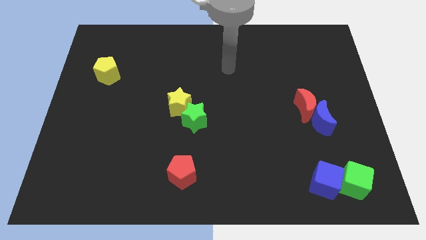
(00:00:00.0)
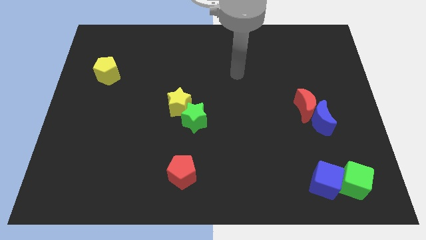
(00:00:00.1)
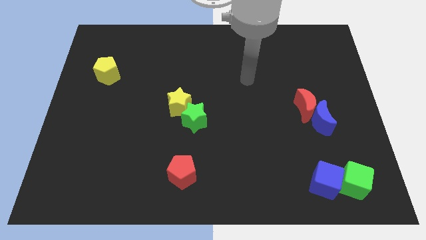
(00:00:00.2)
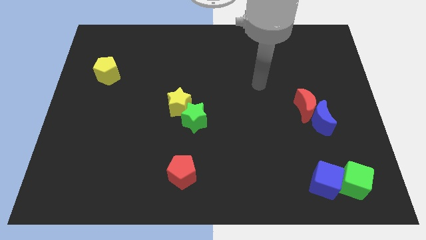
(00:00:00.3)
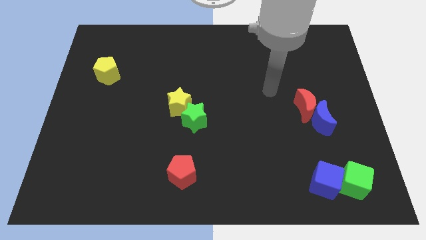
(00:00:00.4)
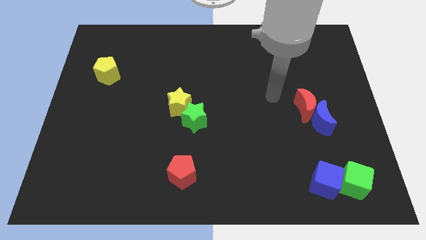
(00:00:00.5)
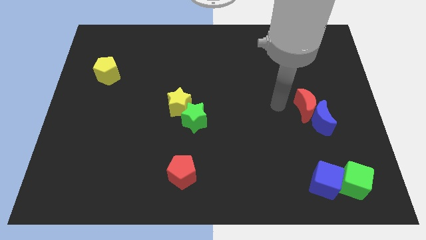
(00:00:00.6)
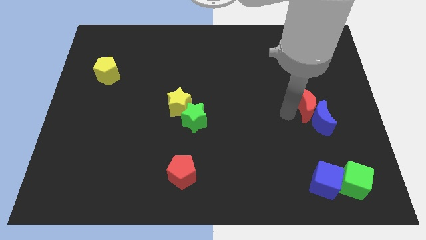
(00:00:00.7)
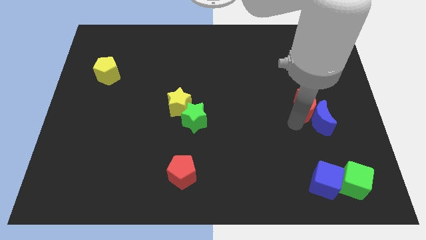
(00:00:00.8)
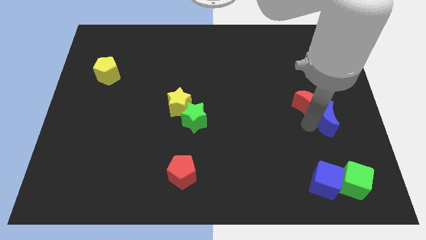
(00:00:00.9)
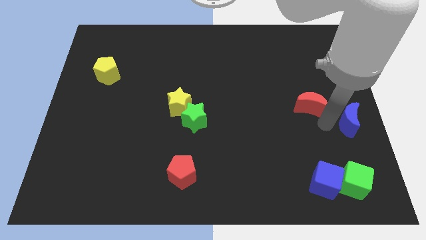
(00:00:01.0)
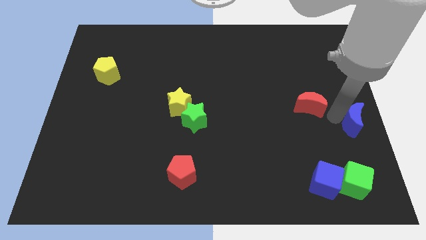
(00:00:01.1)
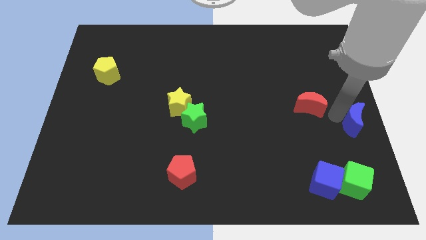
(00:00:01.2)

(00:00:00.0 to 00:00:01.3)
move the red moon away from the blue moon

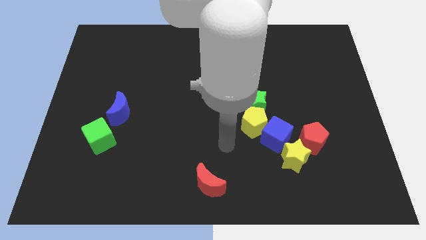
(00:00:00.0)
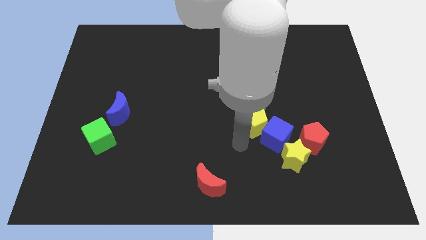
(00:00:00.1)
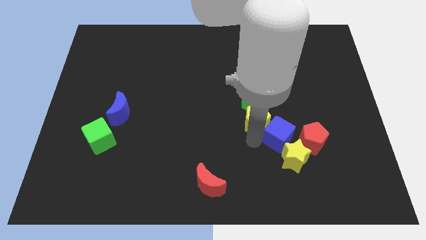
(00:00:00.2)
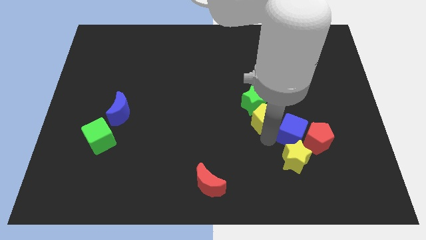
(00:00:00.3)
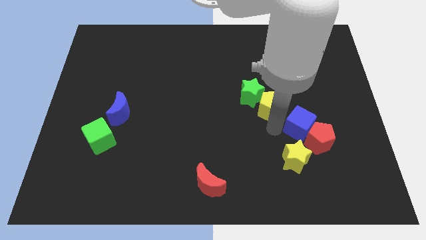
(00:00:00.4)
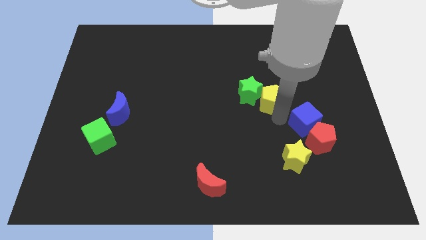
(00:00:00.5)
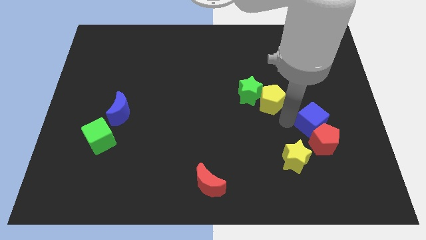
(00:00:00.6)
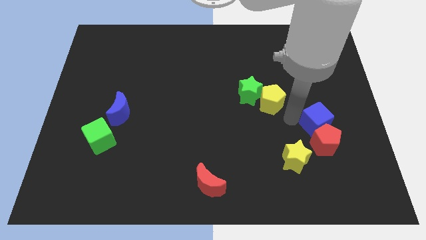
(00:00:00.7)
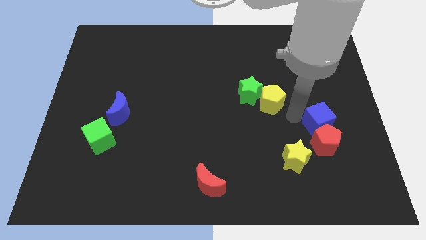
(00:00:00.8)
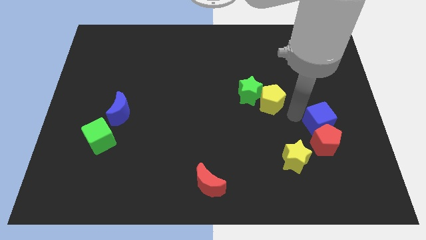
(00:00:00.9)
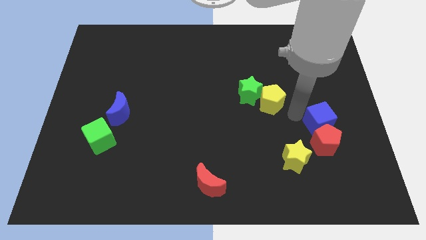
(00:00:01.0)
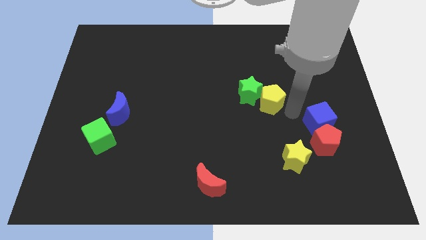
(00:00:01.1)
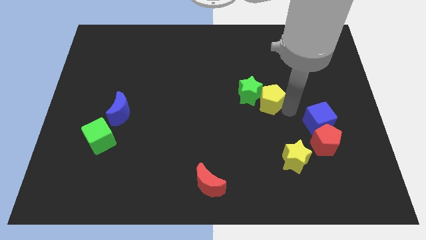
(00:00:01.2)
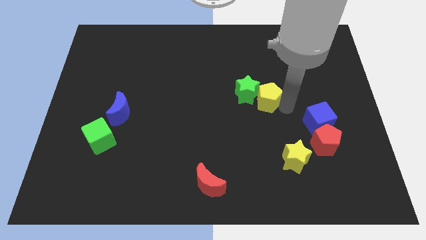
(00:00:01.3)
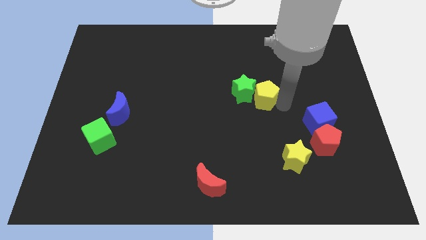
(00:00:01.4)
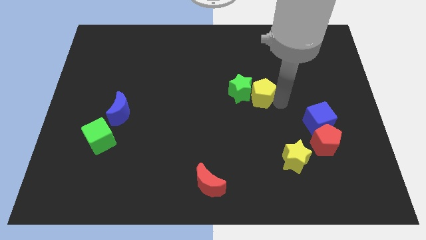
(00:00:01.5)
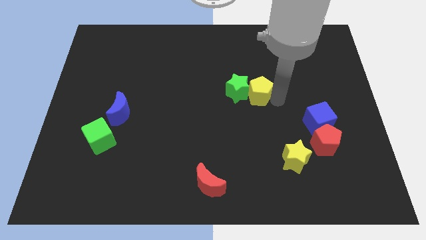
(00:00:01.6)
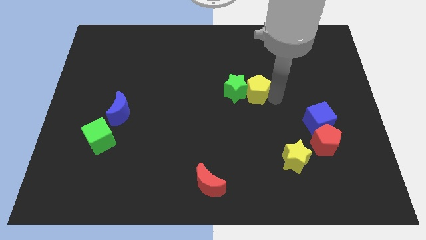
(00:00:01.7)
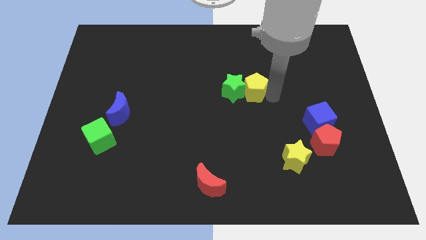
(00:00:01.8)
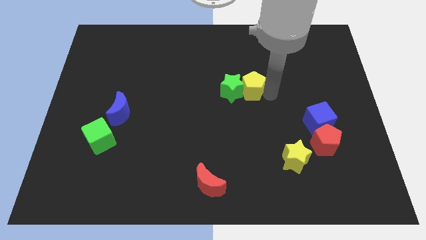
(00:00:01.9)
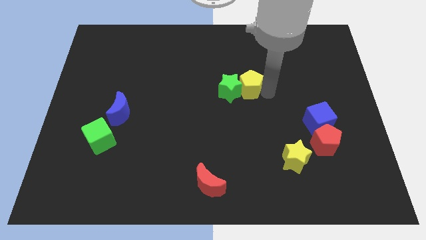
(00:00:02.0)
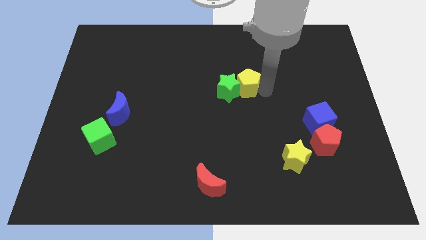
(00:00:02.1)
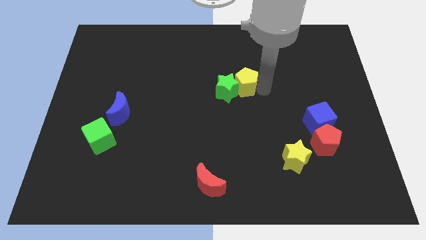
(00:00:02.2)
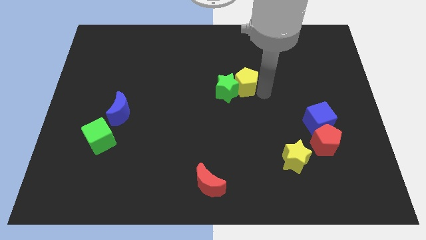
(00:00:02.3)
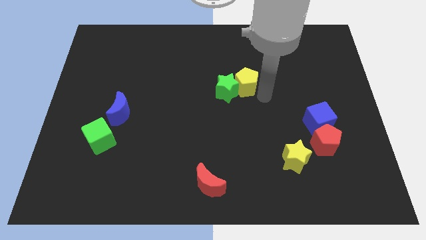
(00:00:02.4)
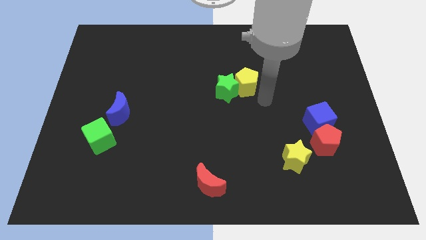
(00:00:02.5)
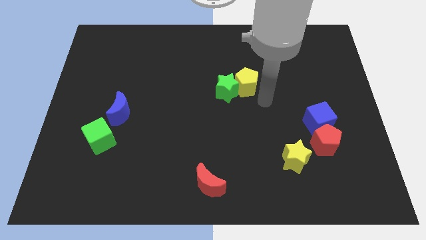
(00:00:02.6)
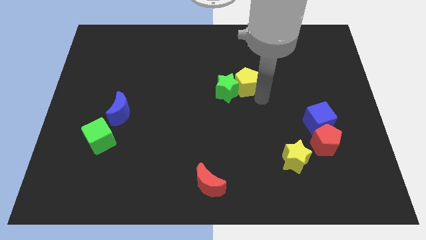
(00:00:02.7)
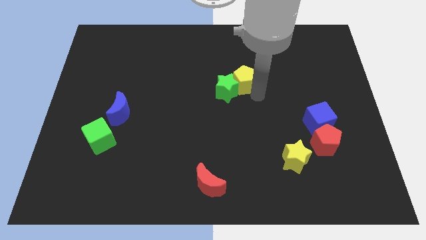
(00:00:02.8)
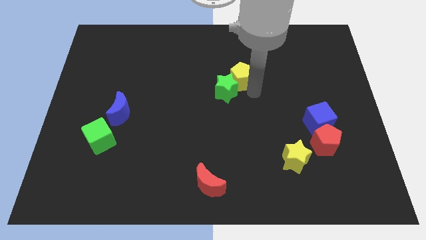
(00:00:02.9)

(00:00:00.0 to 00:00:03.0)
move the yellow pentagon away from the green star and blue cube

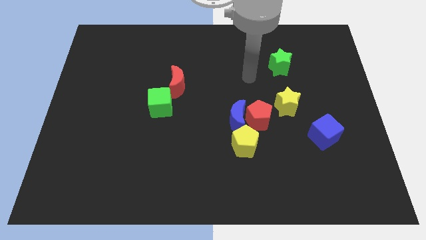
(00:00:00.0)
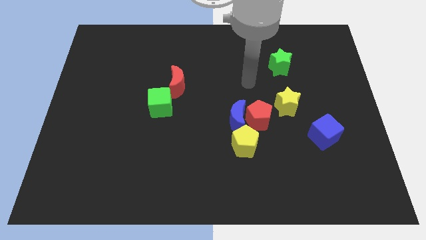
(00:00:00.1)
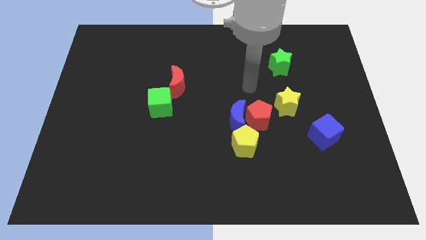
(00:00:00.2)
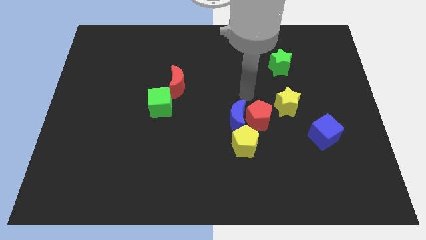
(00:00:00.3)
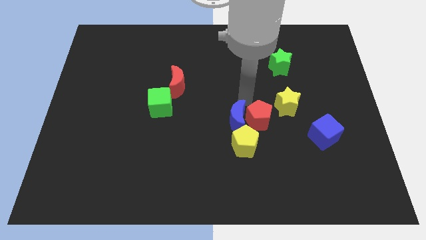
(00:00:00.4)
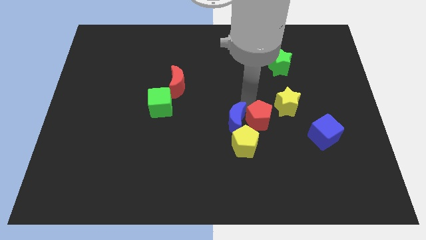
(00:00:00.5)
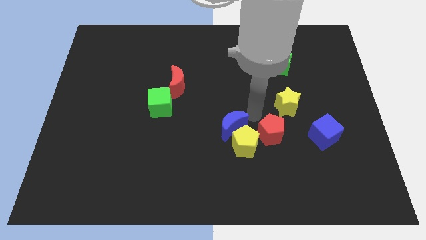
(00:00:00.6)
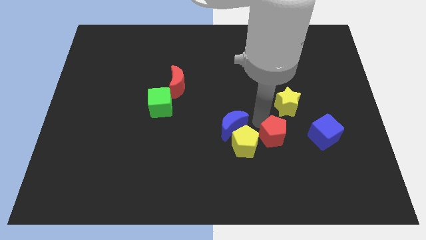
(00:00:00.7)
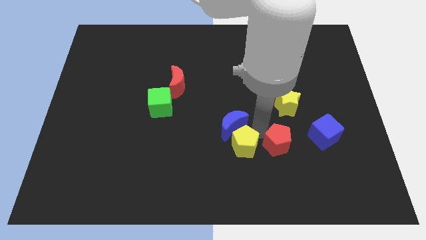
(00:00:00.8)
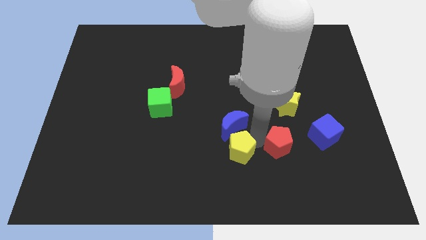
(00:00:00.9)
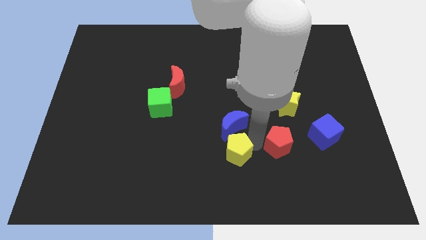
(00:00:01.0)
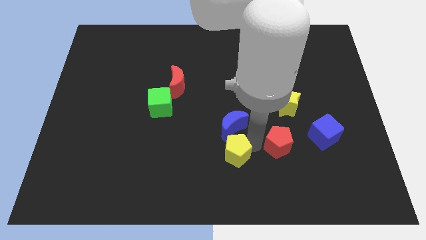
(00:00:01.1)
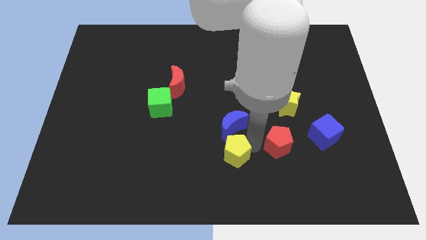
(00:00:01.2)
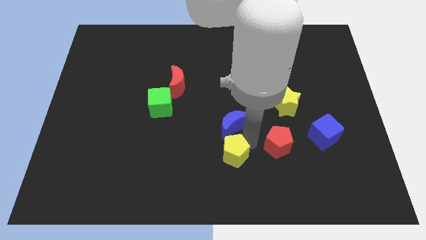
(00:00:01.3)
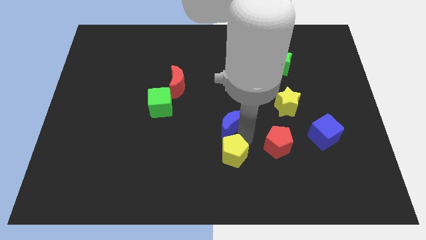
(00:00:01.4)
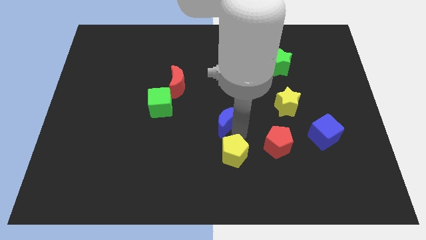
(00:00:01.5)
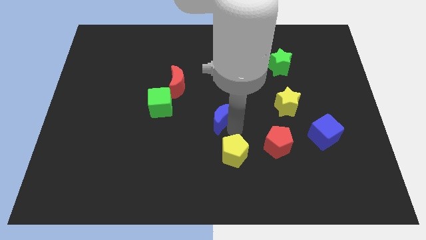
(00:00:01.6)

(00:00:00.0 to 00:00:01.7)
move the blue moon away from the red pentagon and yellow pentagon

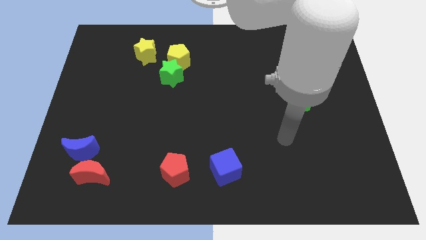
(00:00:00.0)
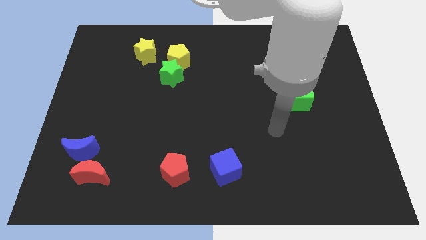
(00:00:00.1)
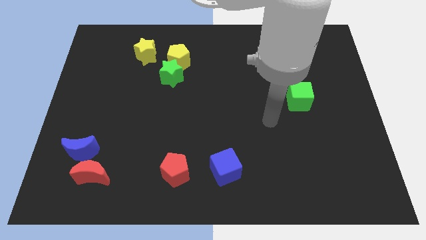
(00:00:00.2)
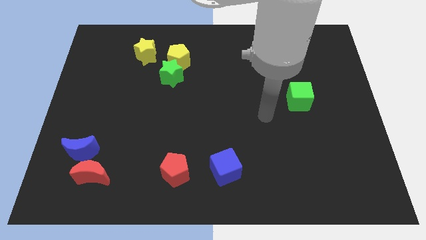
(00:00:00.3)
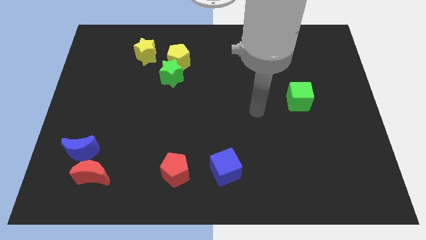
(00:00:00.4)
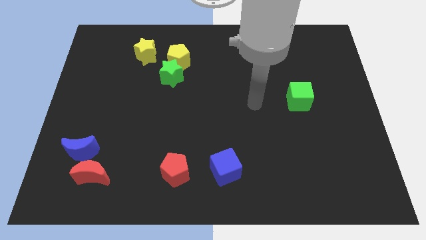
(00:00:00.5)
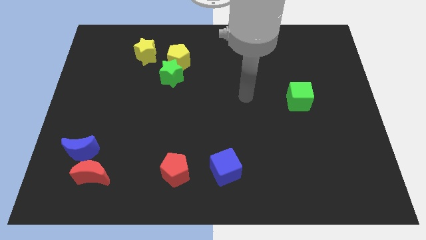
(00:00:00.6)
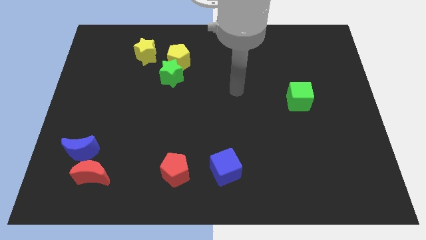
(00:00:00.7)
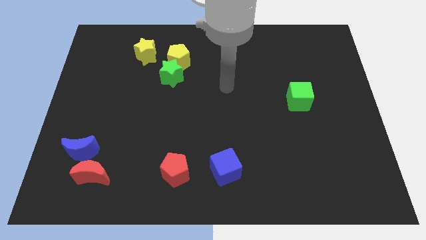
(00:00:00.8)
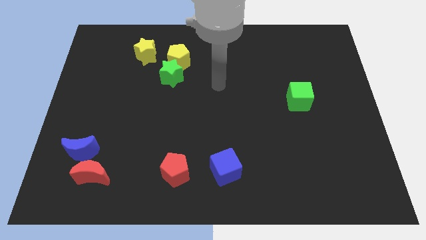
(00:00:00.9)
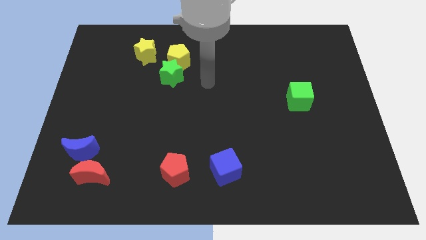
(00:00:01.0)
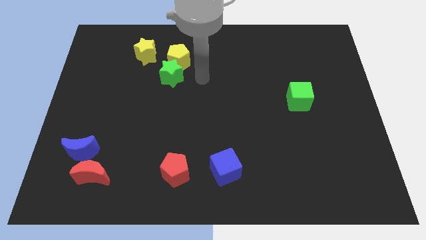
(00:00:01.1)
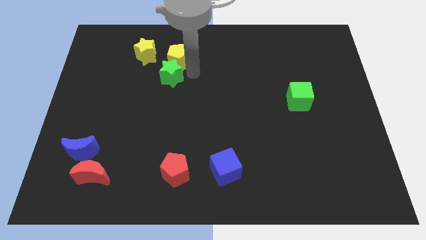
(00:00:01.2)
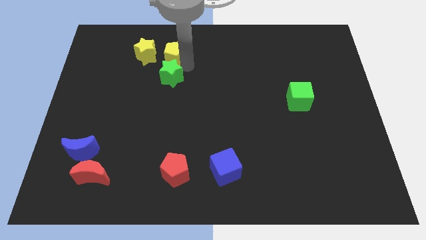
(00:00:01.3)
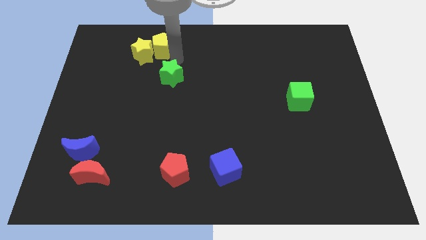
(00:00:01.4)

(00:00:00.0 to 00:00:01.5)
pull the green star apart from the yellow pentagon

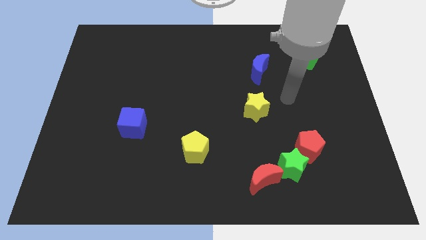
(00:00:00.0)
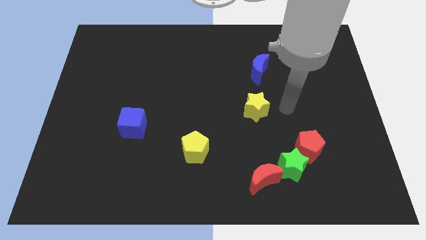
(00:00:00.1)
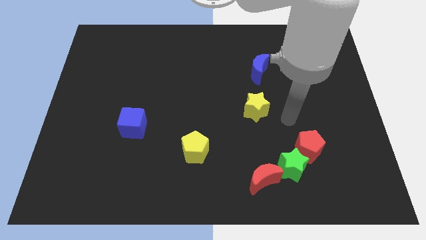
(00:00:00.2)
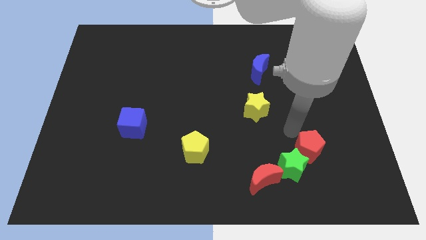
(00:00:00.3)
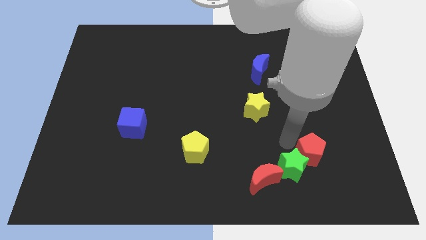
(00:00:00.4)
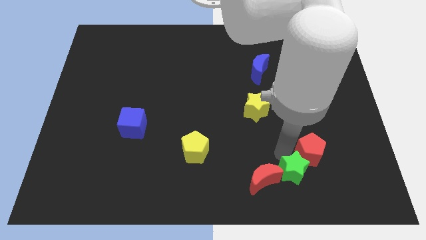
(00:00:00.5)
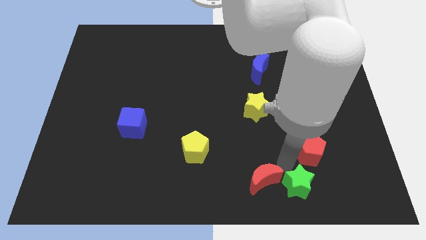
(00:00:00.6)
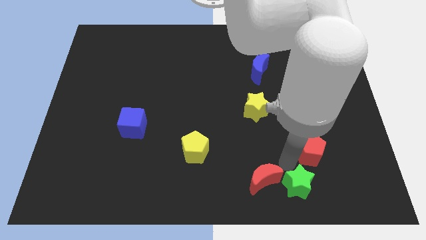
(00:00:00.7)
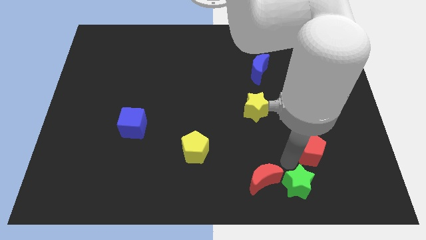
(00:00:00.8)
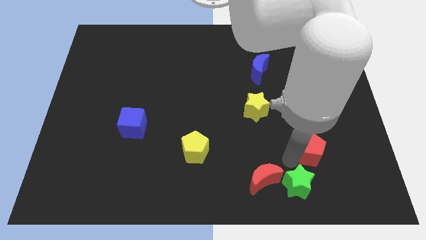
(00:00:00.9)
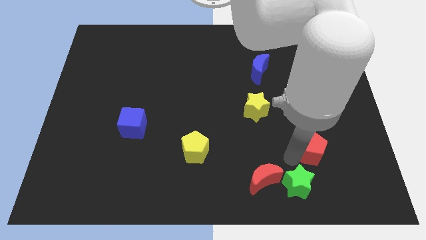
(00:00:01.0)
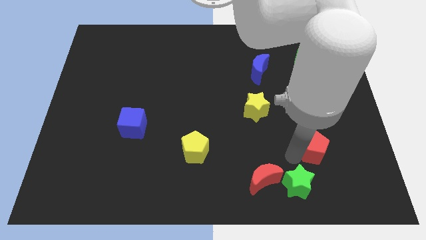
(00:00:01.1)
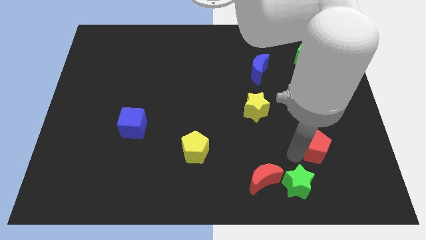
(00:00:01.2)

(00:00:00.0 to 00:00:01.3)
pull the red pentagon apart from the green star

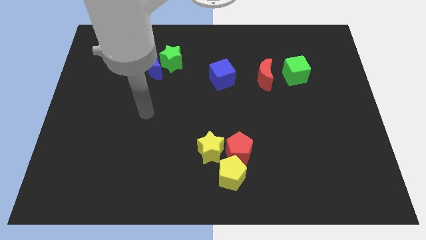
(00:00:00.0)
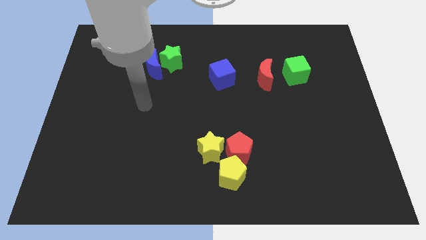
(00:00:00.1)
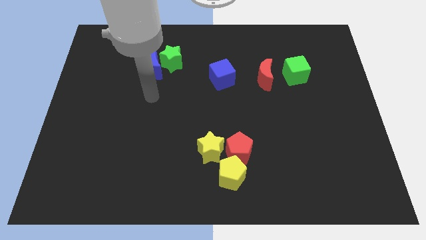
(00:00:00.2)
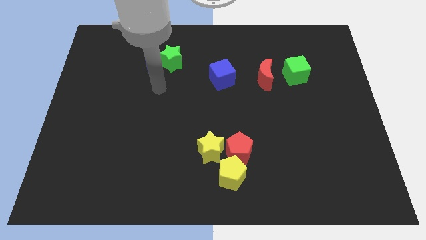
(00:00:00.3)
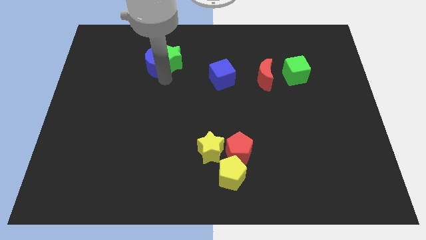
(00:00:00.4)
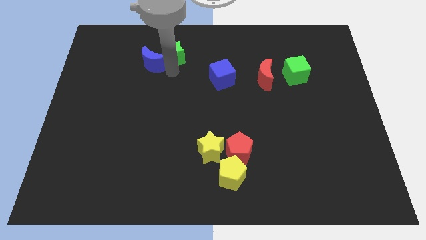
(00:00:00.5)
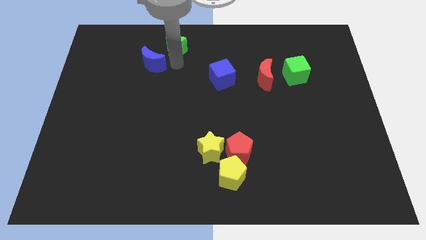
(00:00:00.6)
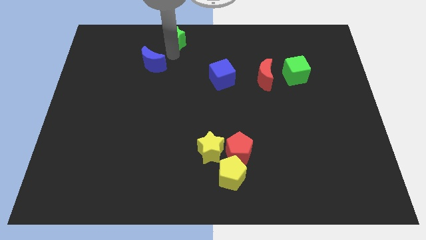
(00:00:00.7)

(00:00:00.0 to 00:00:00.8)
pull the blue moon apart from the green star
